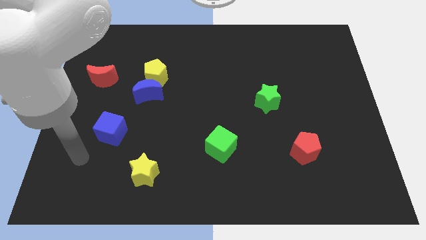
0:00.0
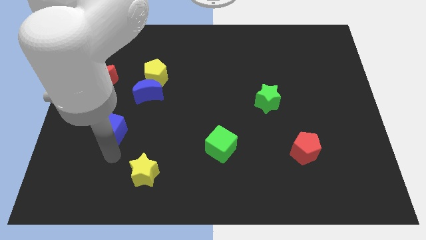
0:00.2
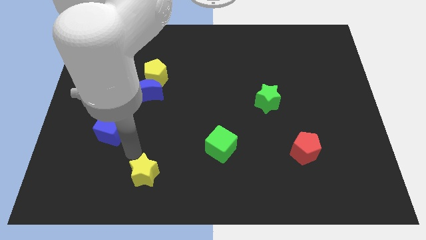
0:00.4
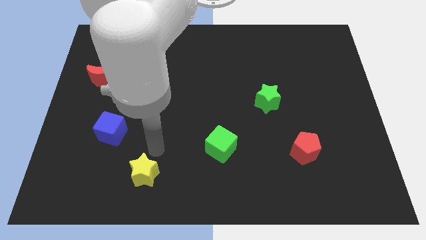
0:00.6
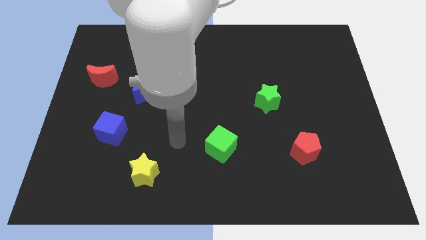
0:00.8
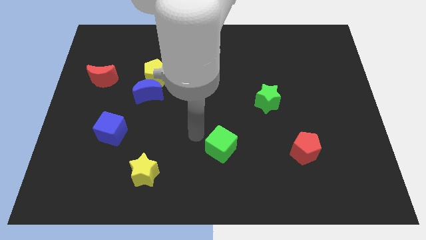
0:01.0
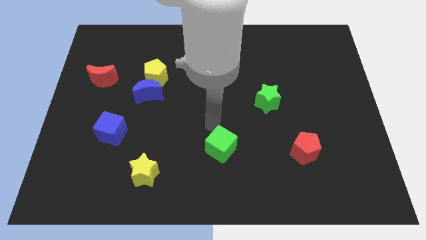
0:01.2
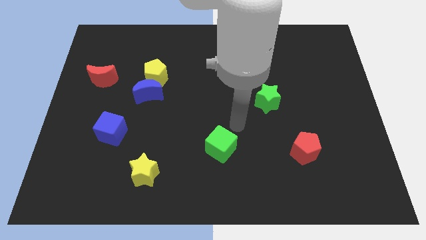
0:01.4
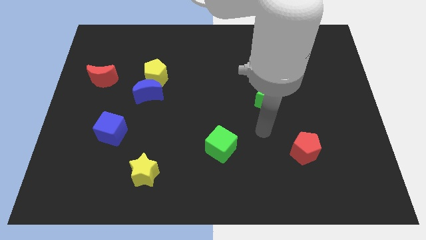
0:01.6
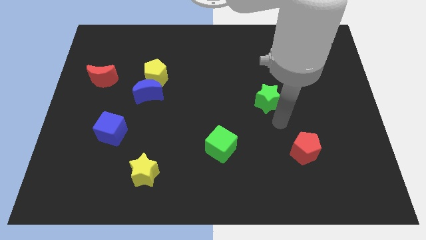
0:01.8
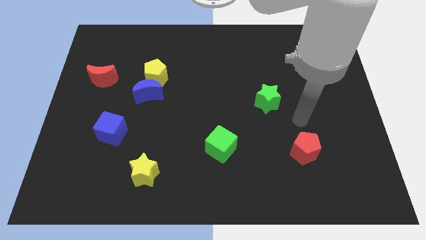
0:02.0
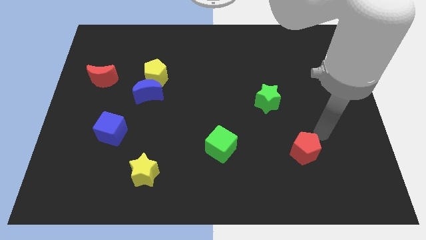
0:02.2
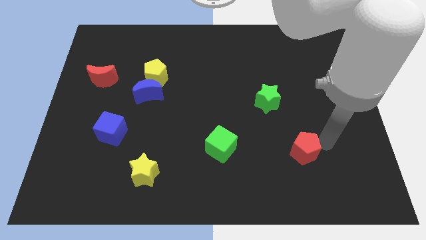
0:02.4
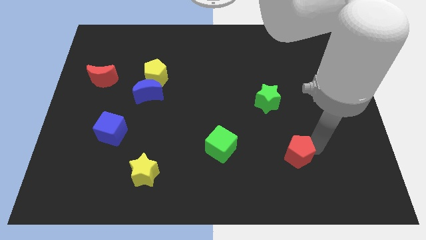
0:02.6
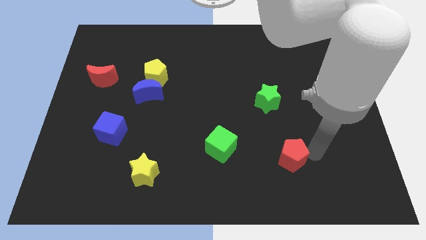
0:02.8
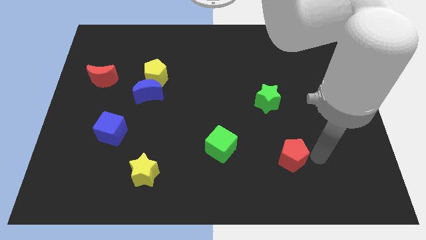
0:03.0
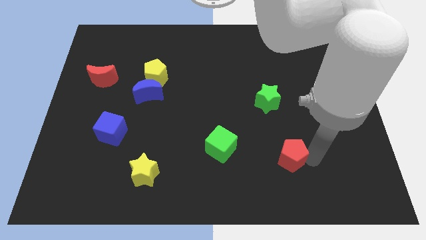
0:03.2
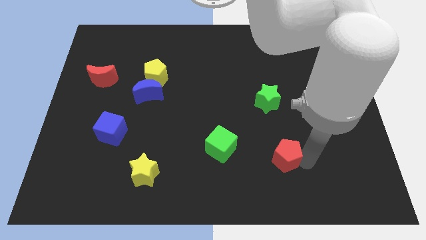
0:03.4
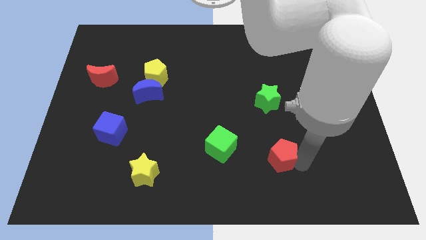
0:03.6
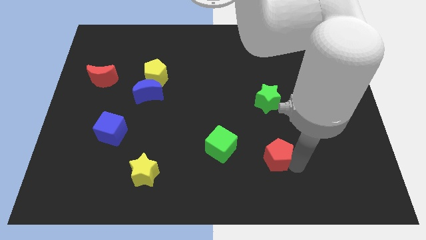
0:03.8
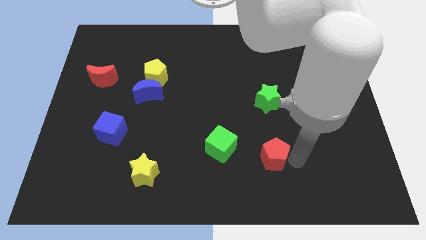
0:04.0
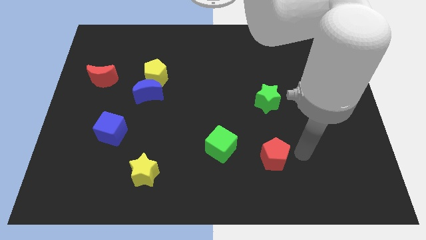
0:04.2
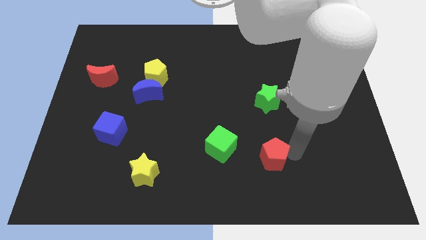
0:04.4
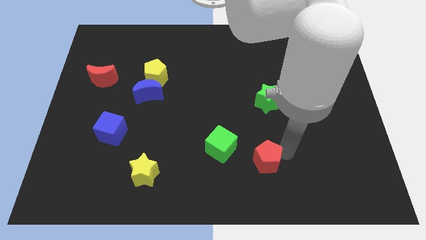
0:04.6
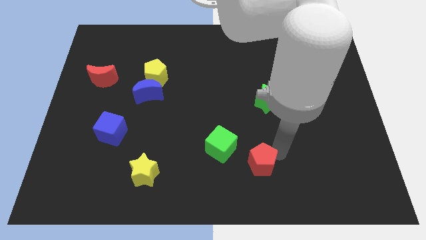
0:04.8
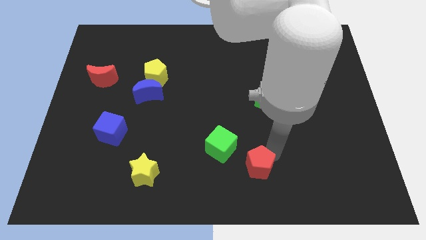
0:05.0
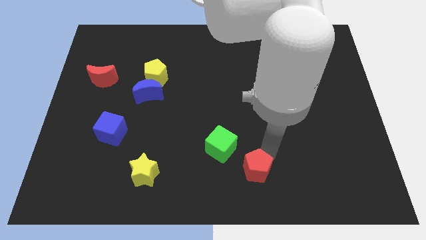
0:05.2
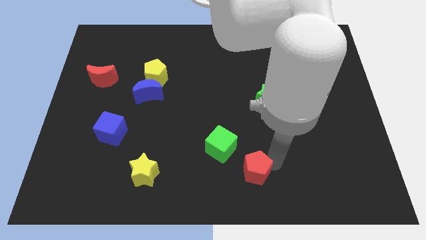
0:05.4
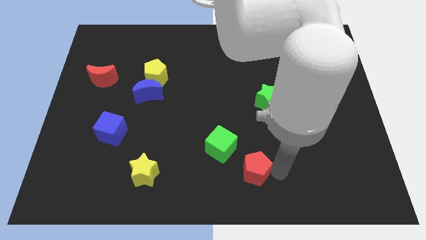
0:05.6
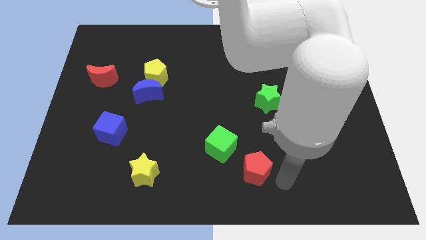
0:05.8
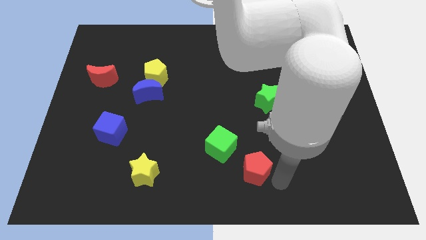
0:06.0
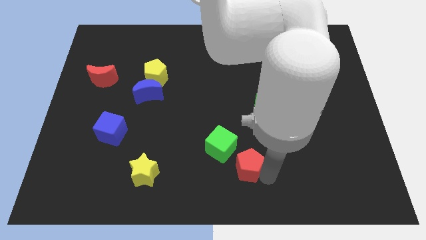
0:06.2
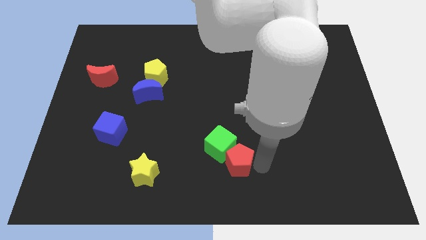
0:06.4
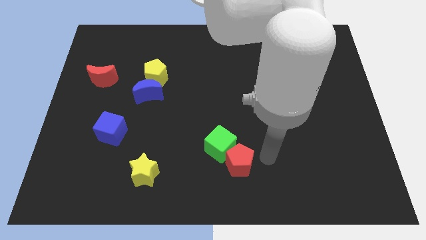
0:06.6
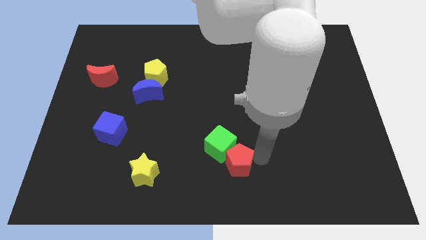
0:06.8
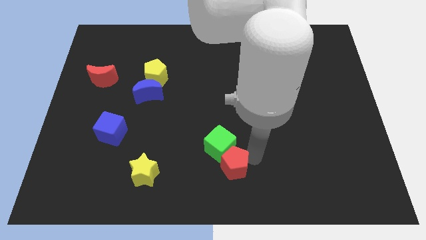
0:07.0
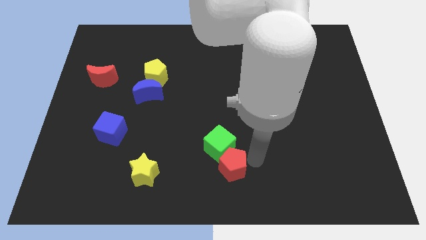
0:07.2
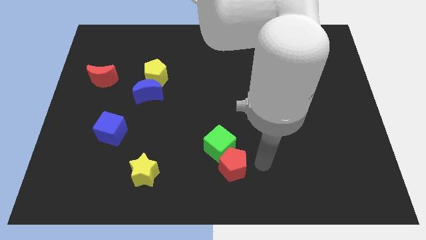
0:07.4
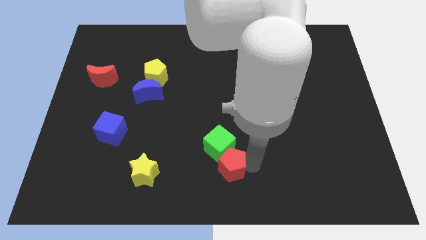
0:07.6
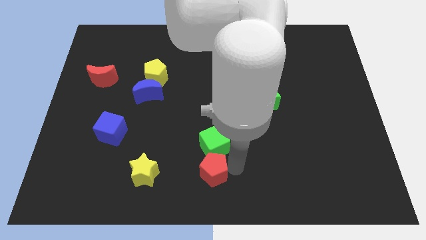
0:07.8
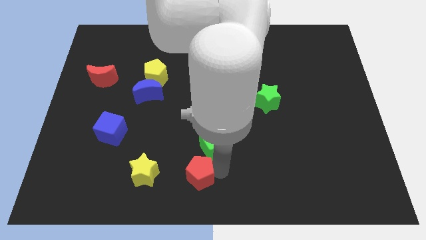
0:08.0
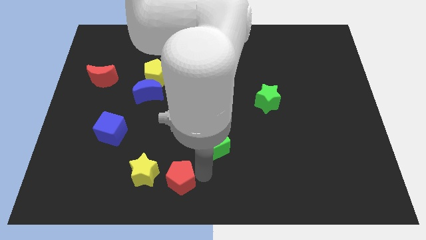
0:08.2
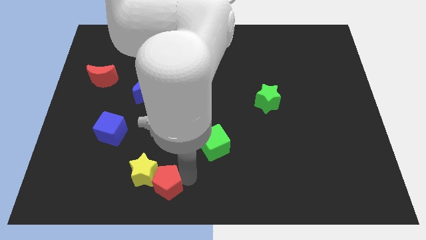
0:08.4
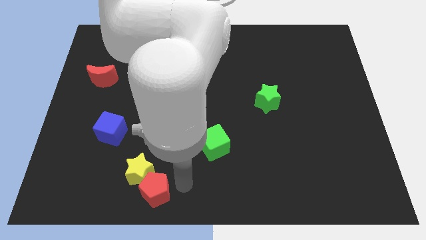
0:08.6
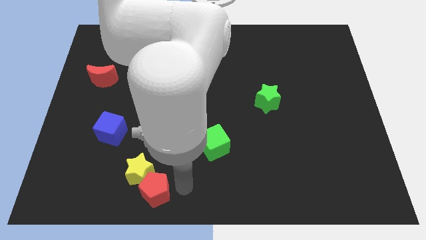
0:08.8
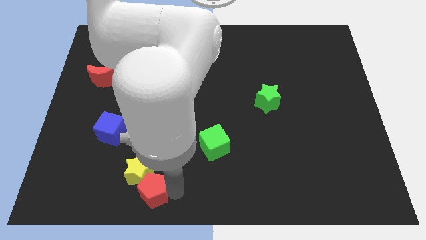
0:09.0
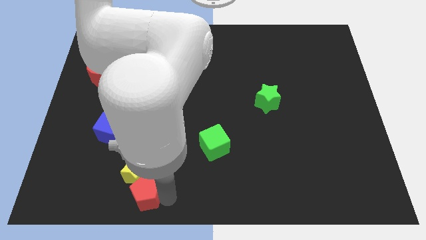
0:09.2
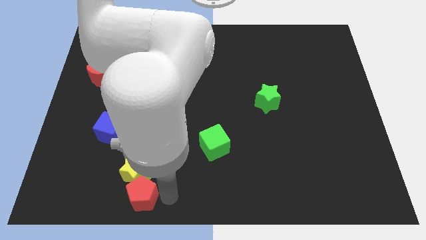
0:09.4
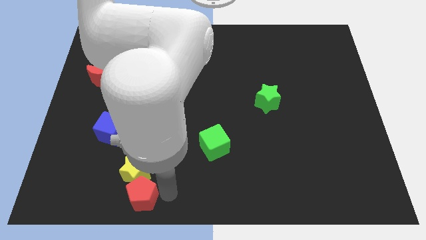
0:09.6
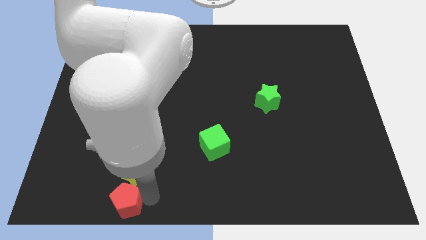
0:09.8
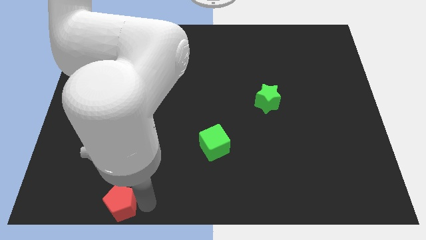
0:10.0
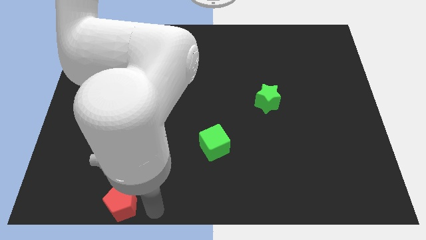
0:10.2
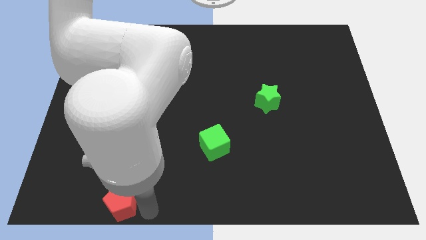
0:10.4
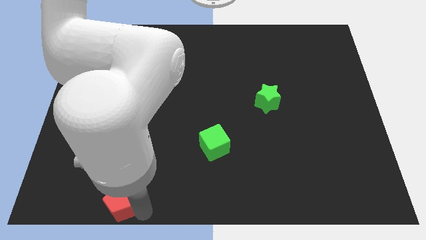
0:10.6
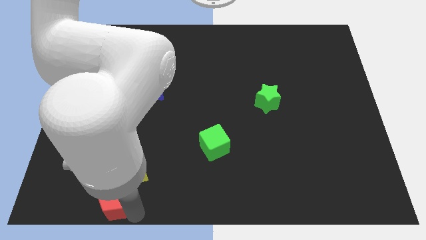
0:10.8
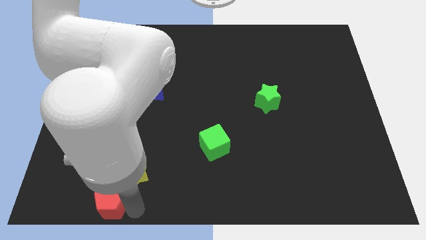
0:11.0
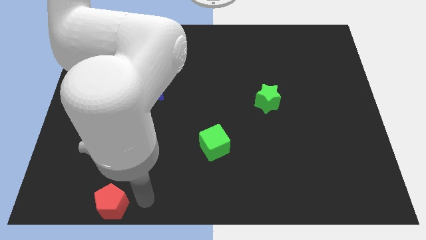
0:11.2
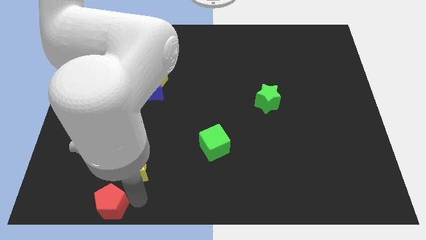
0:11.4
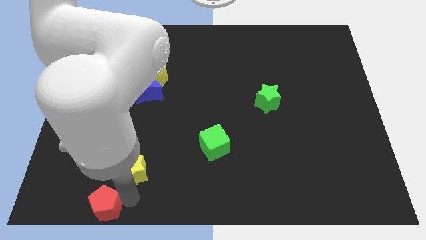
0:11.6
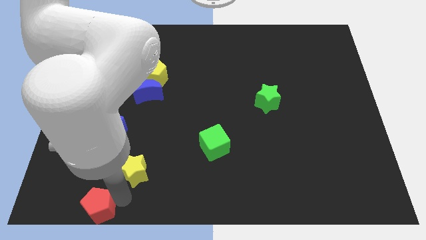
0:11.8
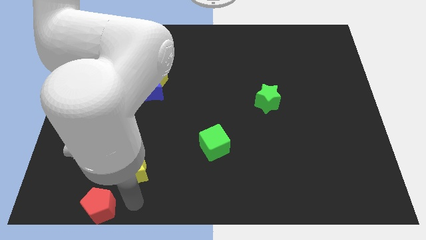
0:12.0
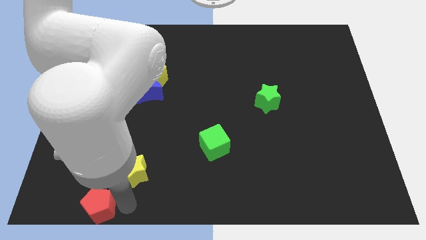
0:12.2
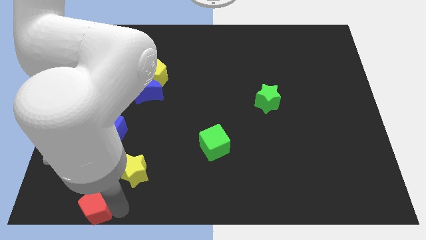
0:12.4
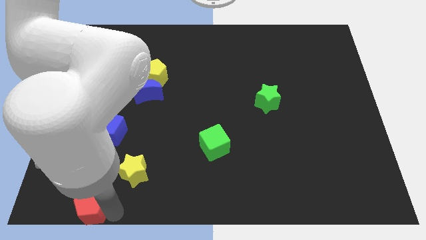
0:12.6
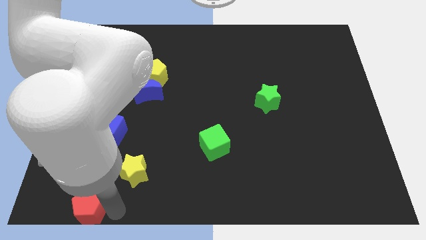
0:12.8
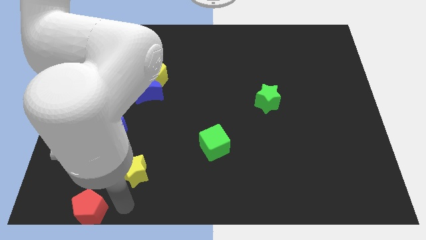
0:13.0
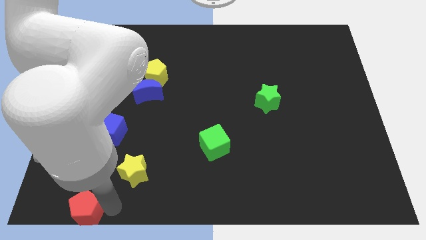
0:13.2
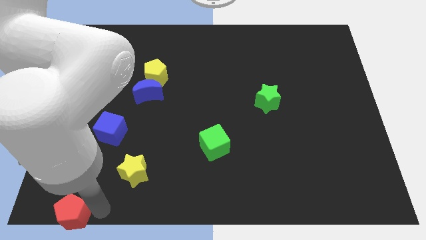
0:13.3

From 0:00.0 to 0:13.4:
slide the red pentagon to the bottom left
